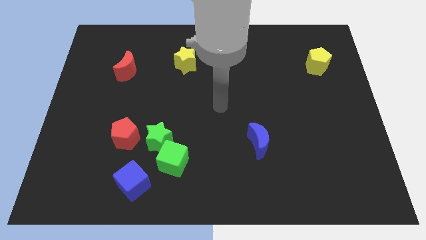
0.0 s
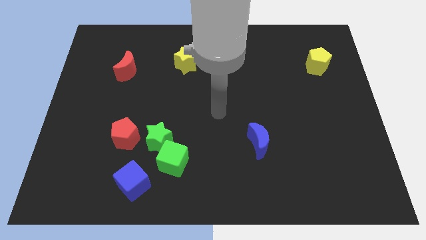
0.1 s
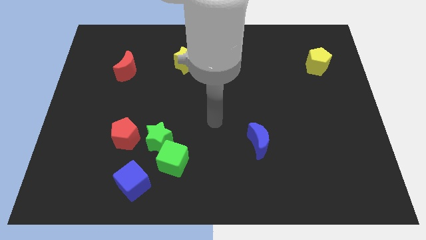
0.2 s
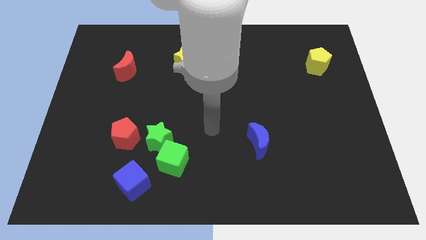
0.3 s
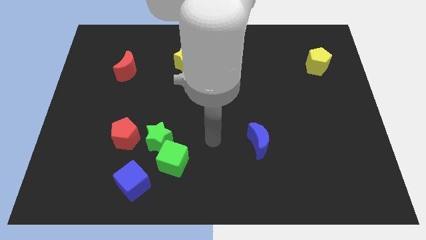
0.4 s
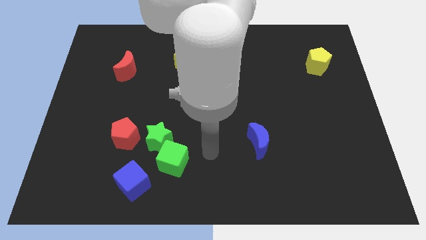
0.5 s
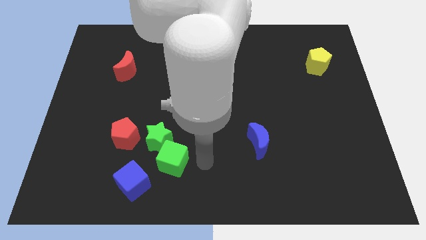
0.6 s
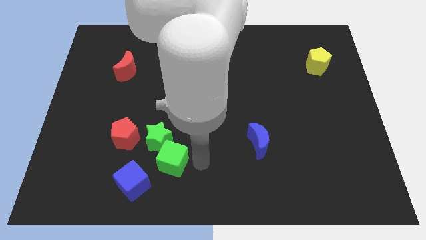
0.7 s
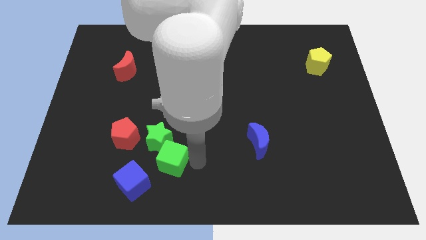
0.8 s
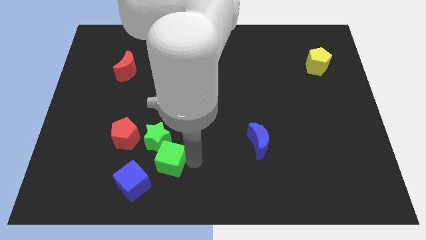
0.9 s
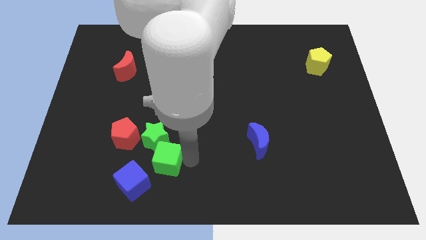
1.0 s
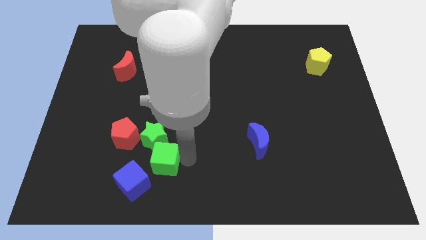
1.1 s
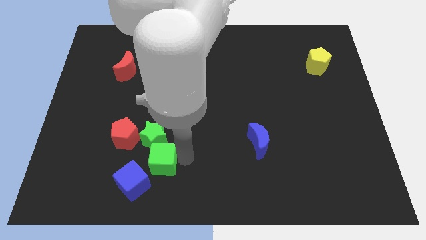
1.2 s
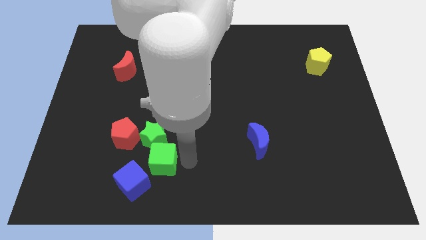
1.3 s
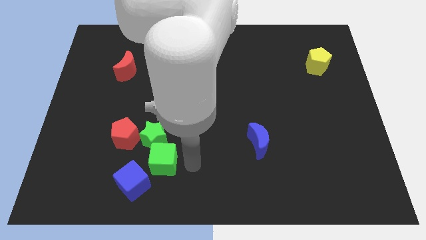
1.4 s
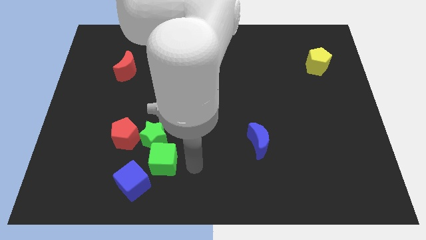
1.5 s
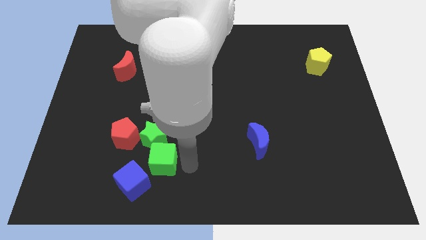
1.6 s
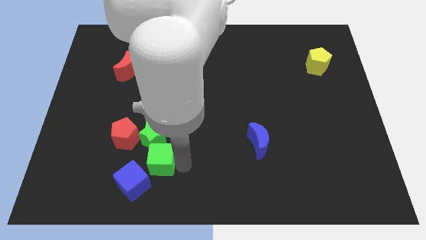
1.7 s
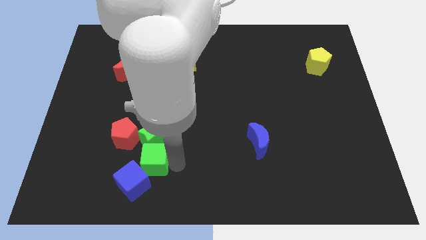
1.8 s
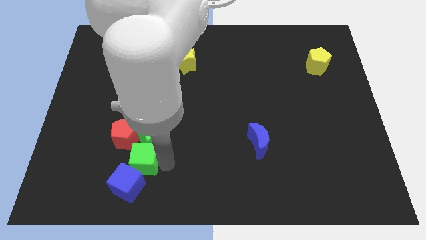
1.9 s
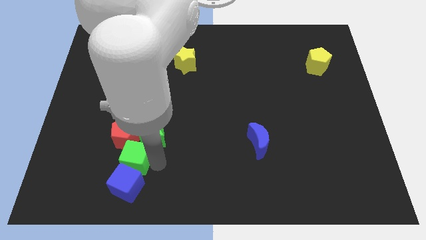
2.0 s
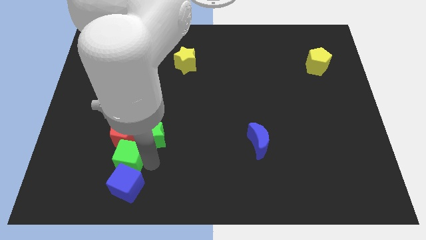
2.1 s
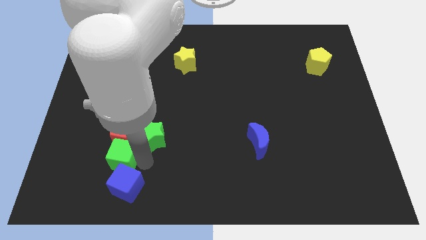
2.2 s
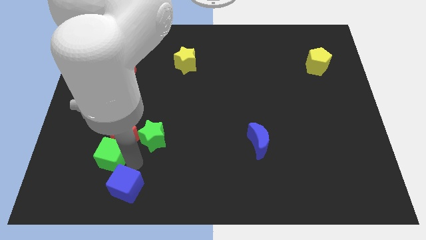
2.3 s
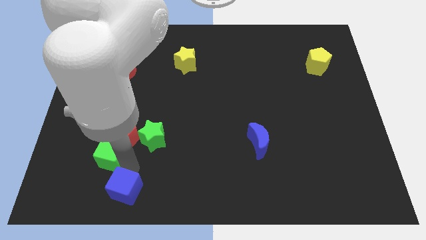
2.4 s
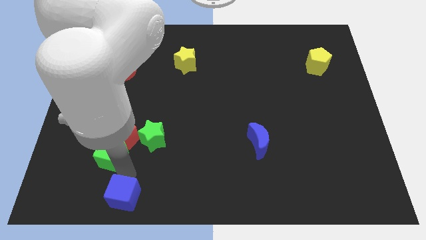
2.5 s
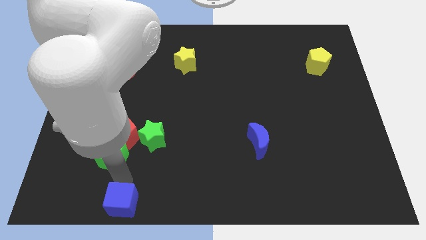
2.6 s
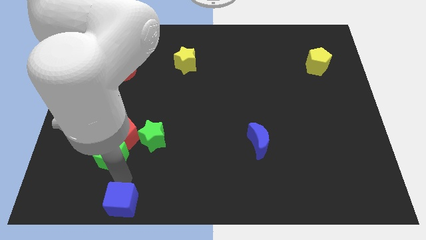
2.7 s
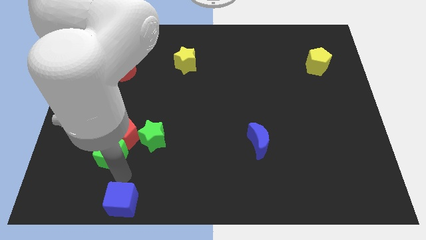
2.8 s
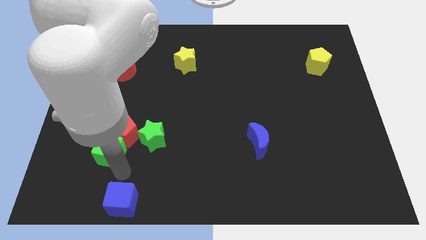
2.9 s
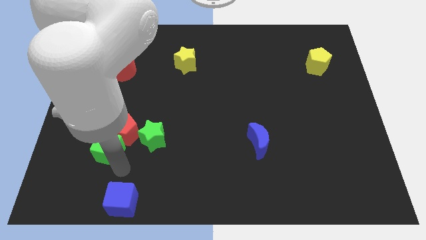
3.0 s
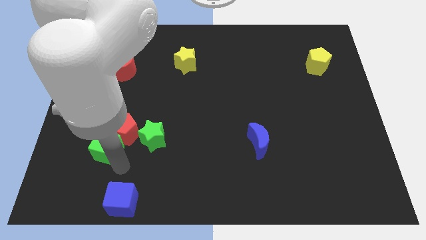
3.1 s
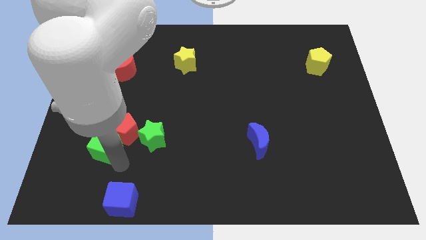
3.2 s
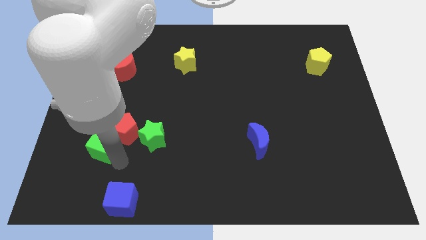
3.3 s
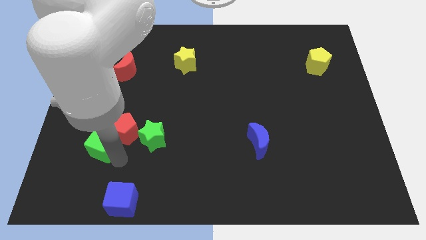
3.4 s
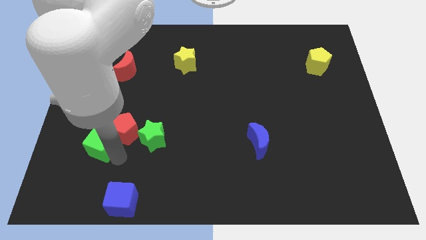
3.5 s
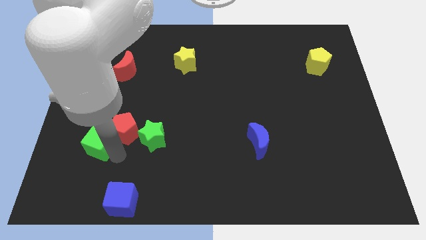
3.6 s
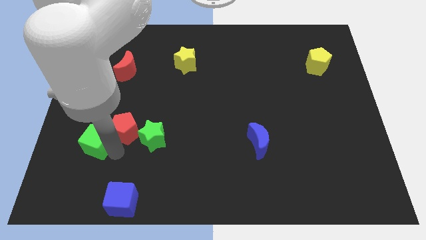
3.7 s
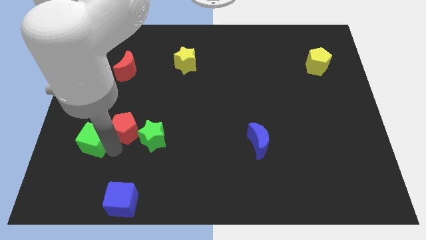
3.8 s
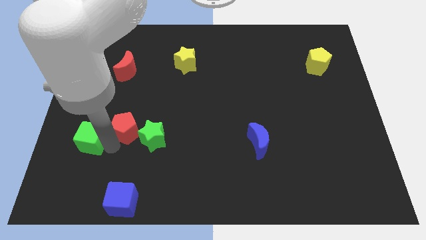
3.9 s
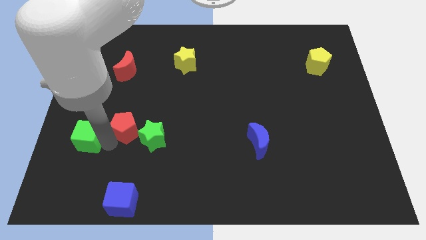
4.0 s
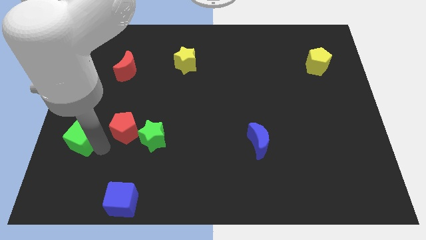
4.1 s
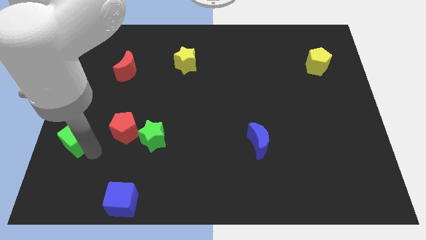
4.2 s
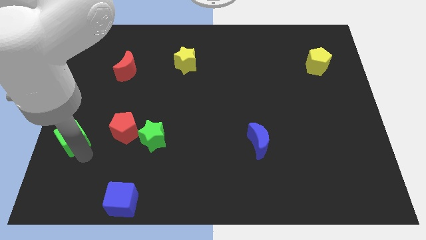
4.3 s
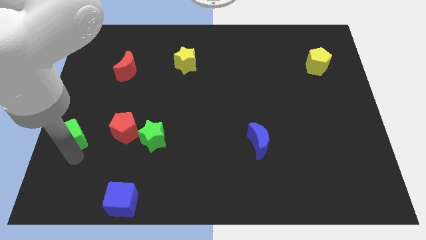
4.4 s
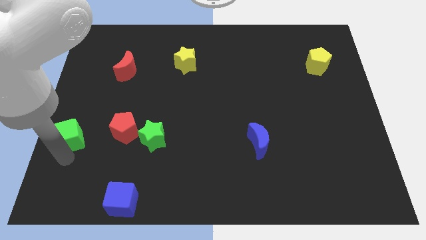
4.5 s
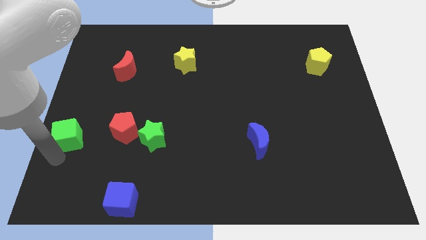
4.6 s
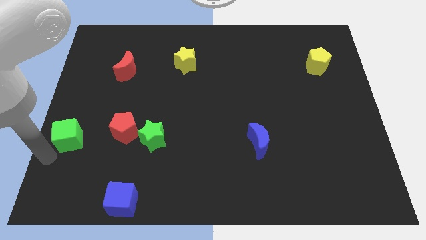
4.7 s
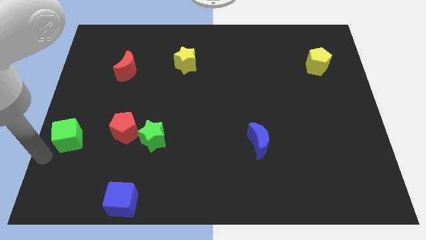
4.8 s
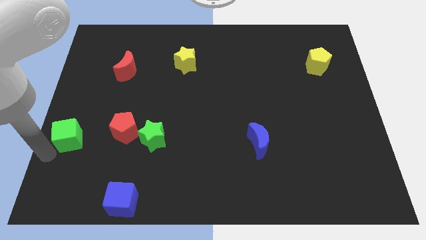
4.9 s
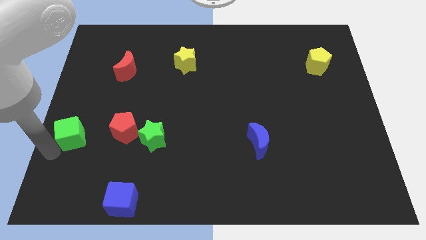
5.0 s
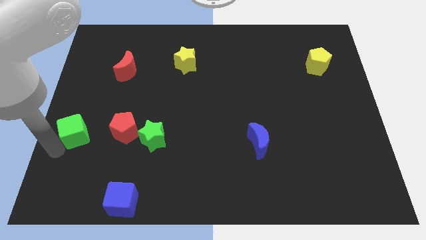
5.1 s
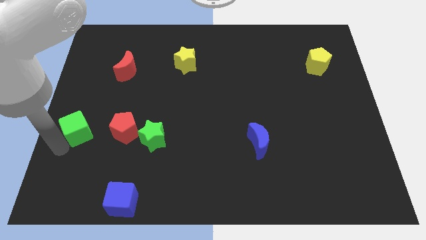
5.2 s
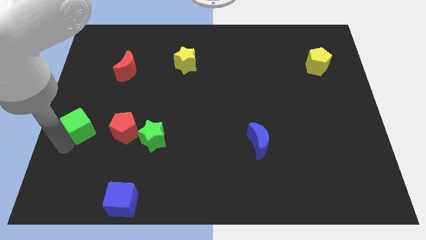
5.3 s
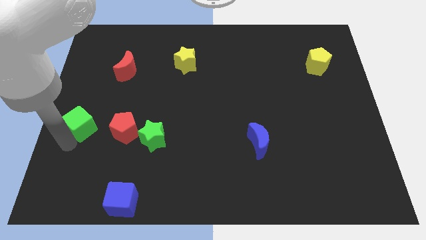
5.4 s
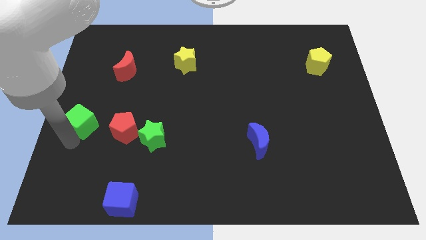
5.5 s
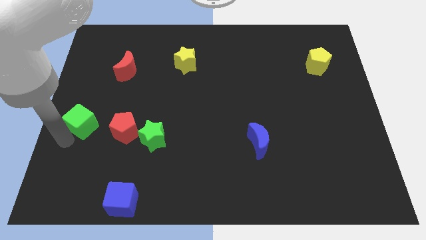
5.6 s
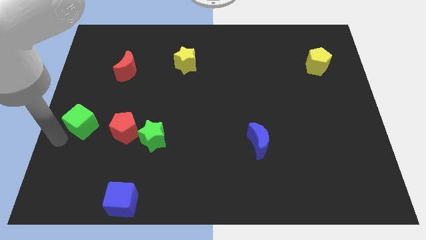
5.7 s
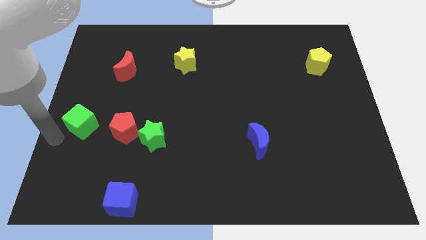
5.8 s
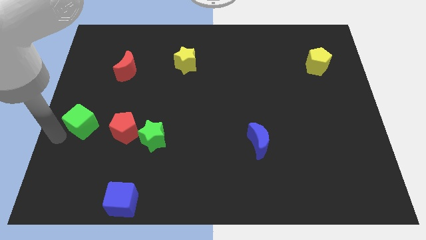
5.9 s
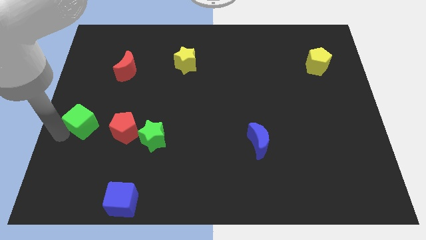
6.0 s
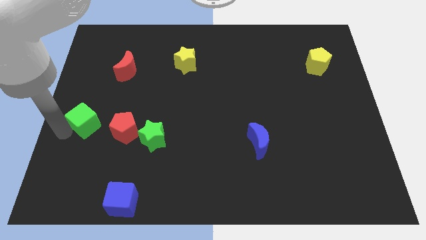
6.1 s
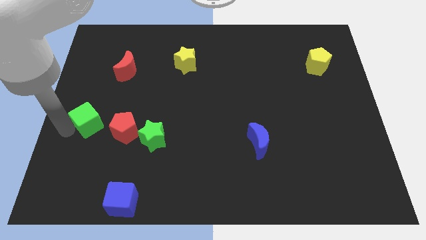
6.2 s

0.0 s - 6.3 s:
move the green cube to the top left side of the red pentagon

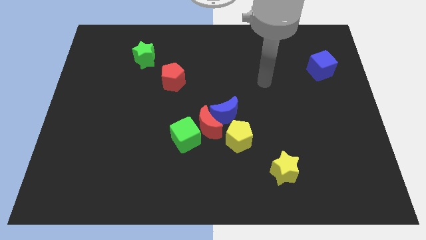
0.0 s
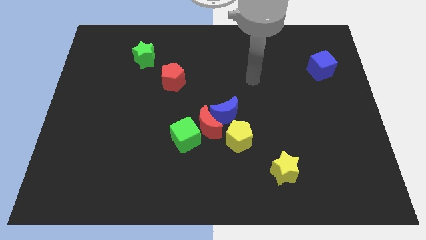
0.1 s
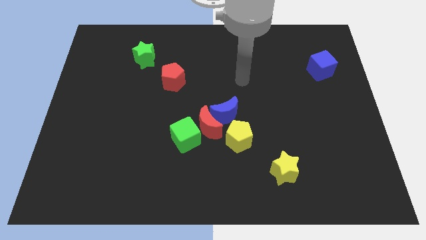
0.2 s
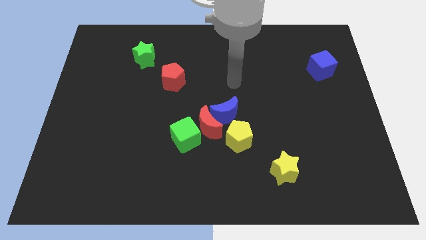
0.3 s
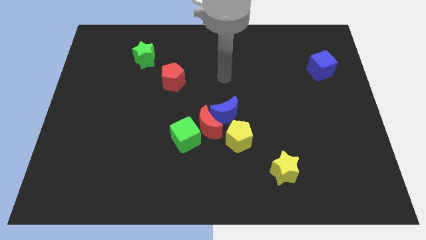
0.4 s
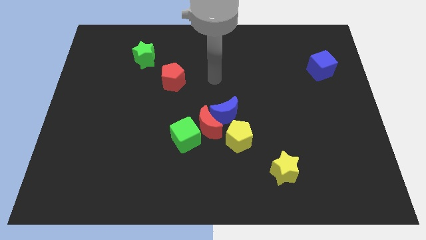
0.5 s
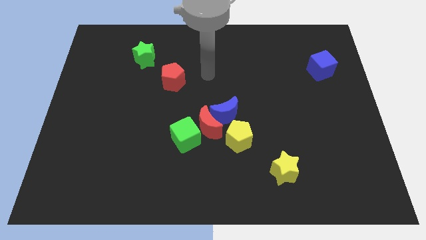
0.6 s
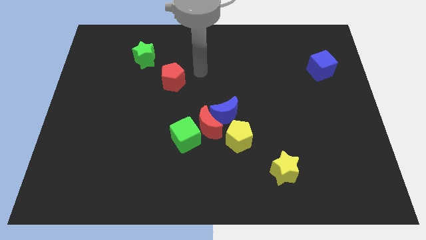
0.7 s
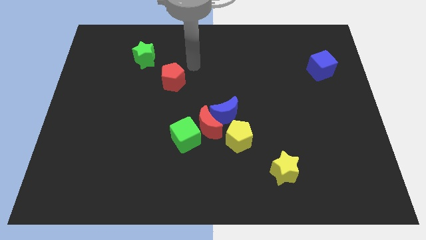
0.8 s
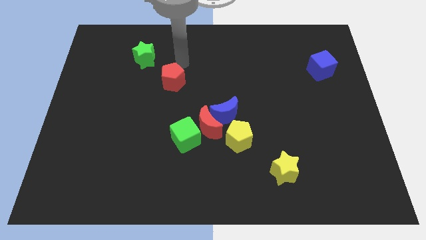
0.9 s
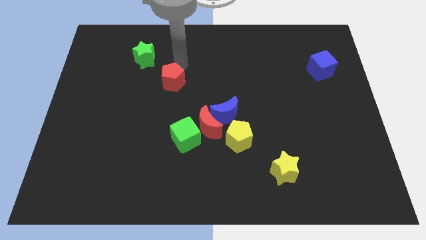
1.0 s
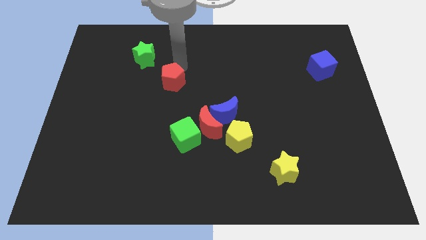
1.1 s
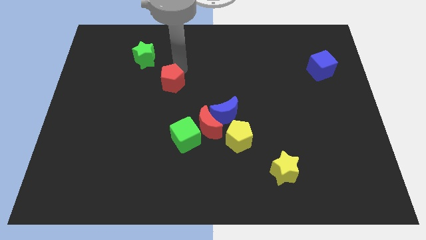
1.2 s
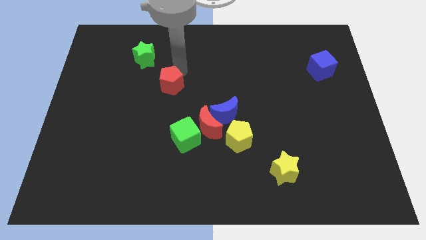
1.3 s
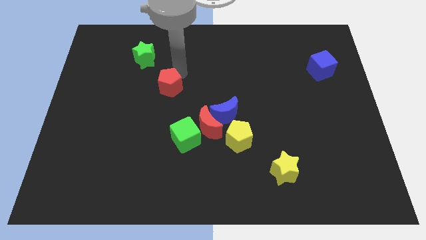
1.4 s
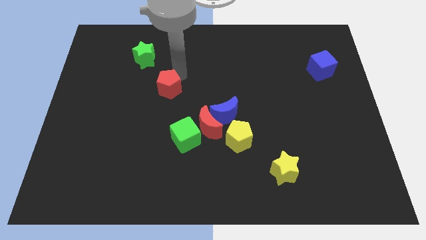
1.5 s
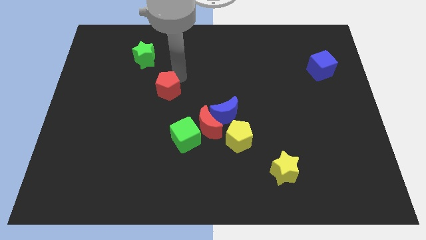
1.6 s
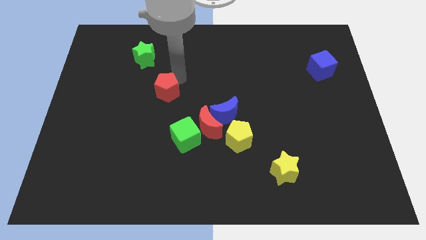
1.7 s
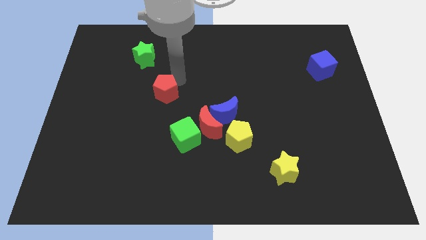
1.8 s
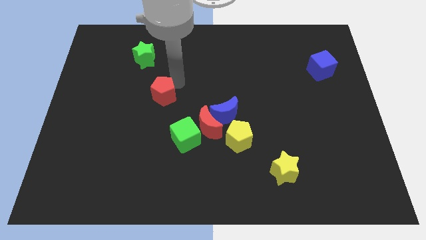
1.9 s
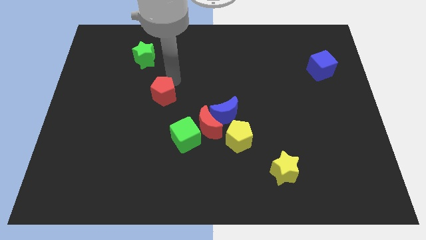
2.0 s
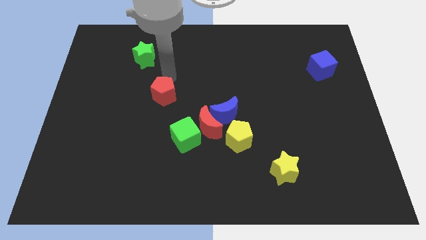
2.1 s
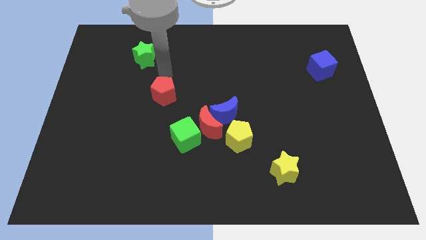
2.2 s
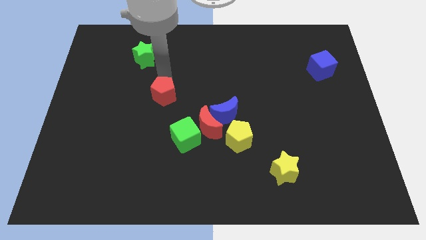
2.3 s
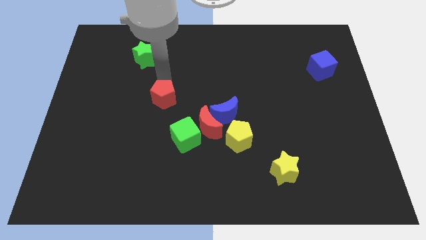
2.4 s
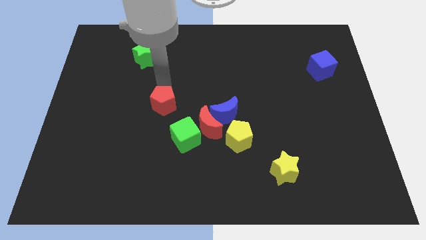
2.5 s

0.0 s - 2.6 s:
put the red pentagon to the top left side of the green cube
